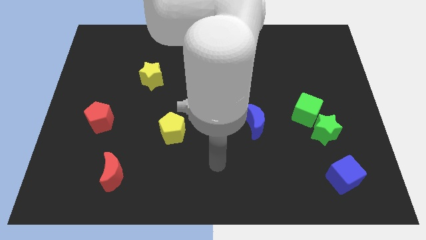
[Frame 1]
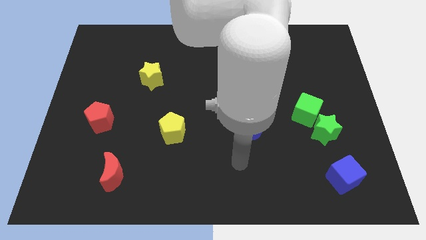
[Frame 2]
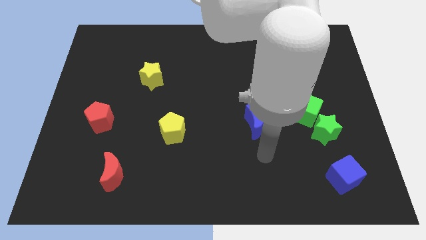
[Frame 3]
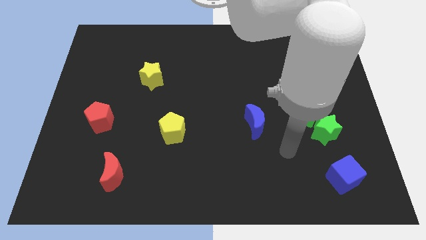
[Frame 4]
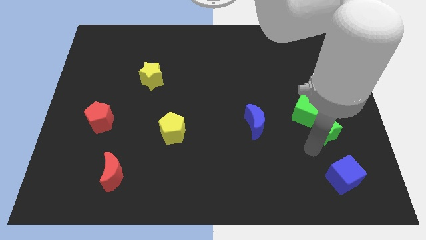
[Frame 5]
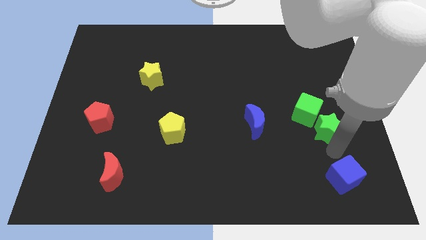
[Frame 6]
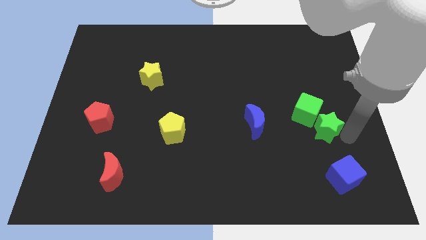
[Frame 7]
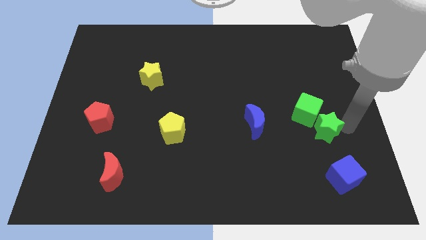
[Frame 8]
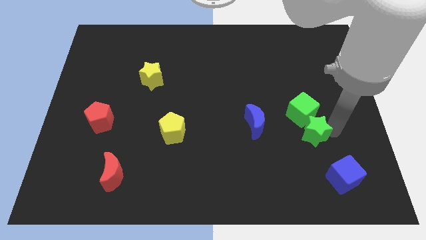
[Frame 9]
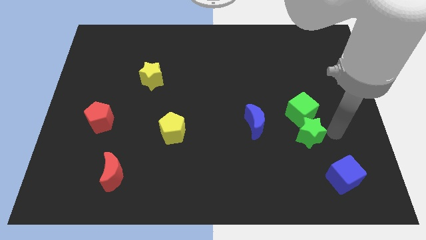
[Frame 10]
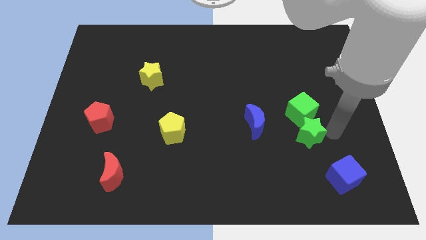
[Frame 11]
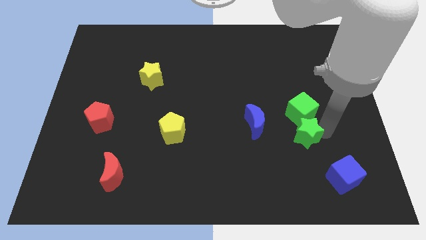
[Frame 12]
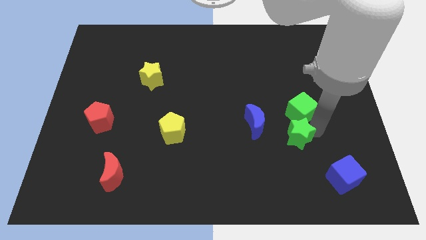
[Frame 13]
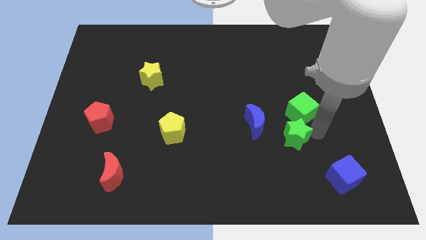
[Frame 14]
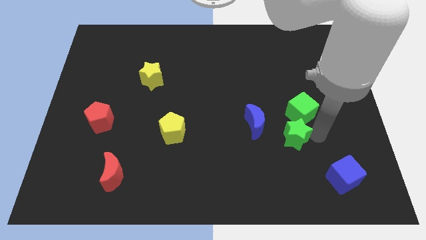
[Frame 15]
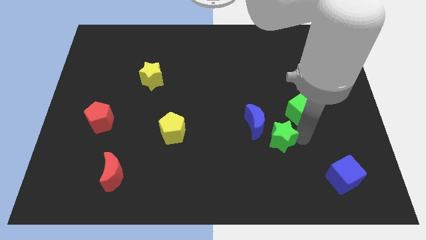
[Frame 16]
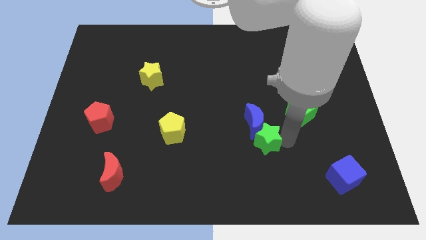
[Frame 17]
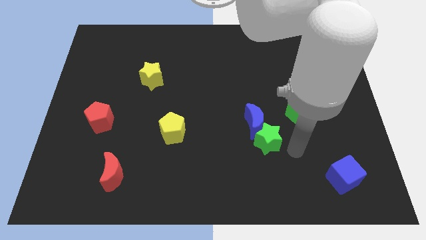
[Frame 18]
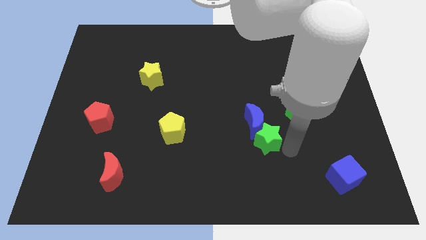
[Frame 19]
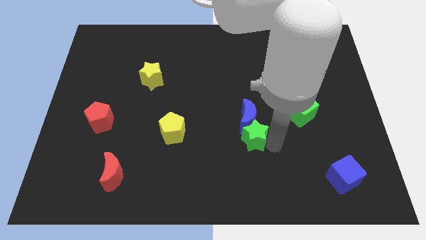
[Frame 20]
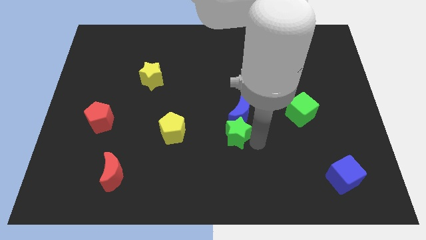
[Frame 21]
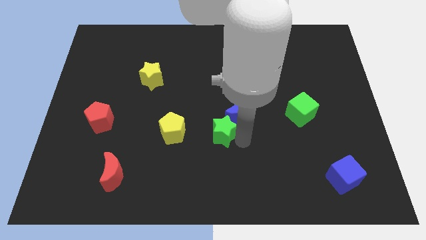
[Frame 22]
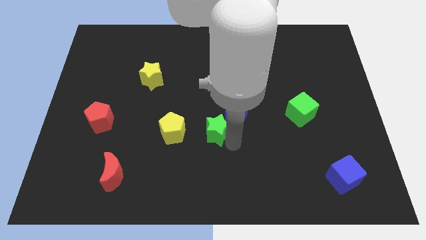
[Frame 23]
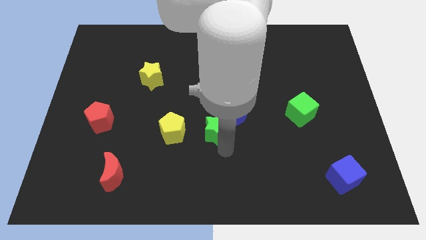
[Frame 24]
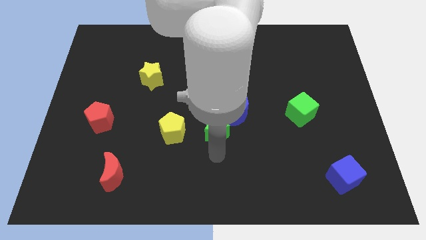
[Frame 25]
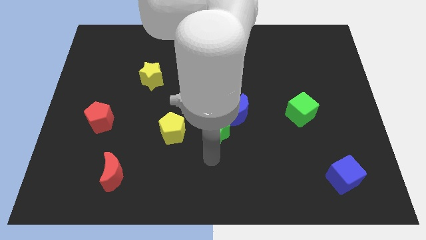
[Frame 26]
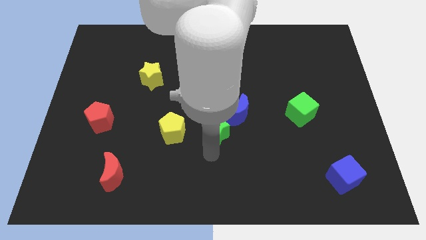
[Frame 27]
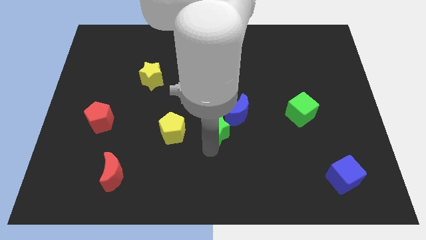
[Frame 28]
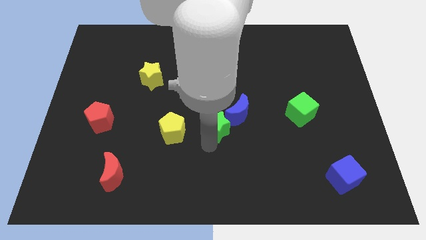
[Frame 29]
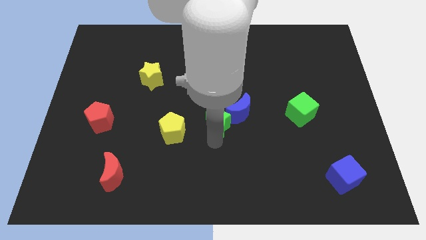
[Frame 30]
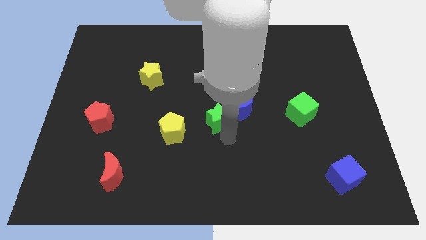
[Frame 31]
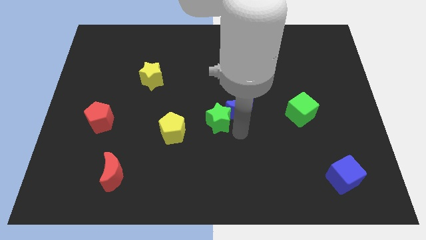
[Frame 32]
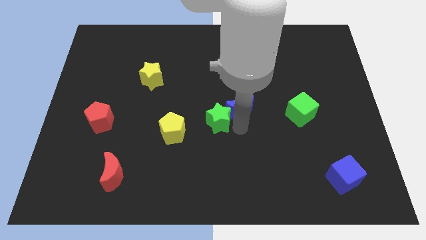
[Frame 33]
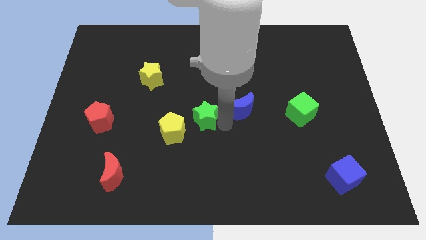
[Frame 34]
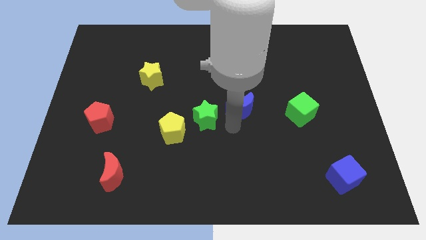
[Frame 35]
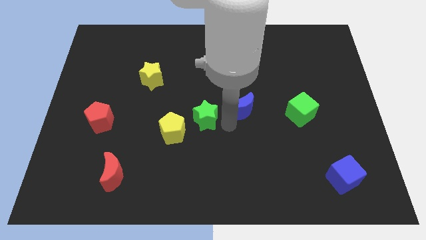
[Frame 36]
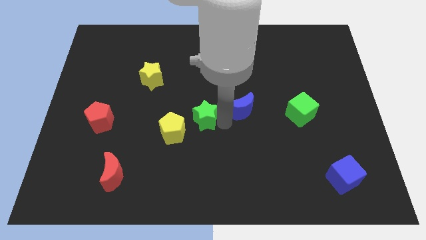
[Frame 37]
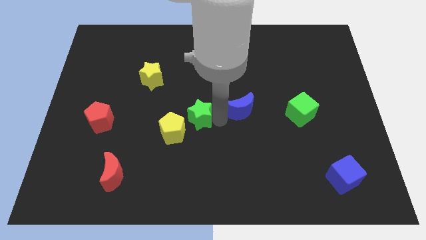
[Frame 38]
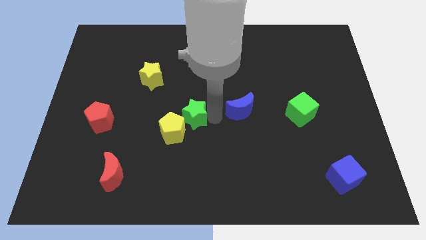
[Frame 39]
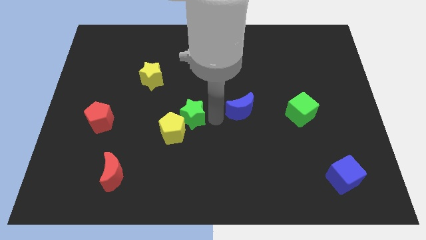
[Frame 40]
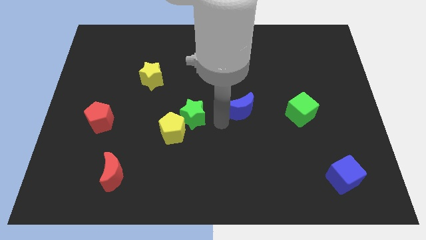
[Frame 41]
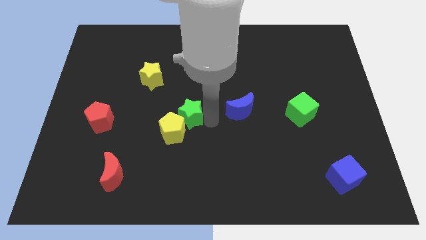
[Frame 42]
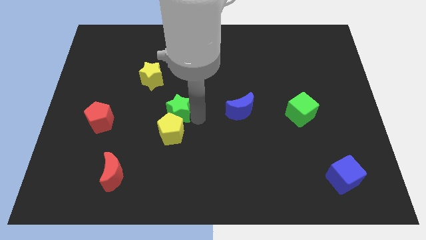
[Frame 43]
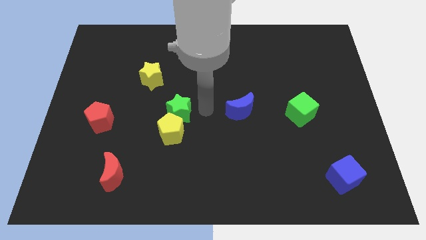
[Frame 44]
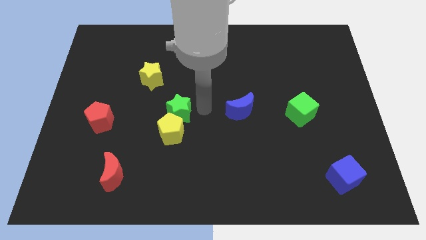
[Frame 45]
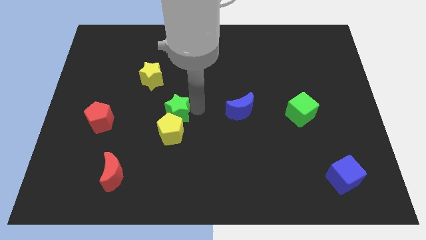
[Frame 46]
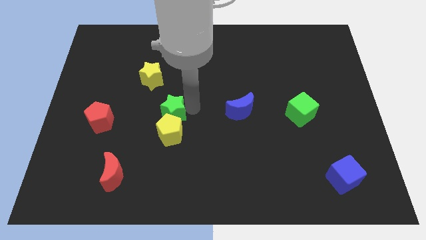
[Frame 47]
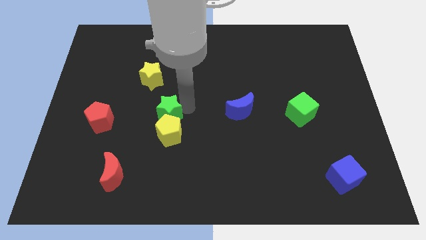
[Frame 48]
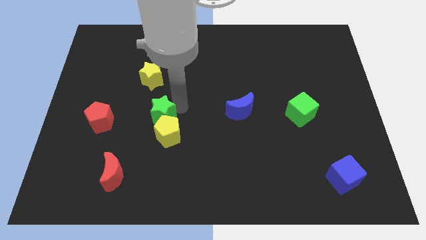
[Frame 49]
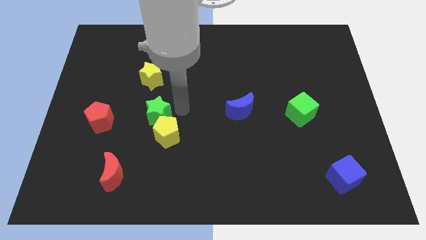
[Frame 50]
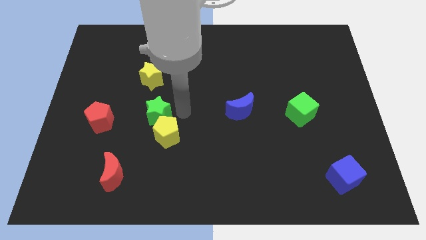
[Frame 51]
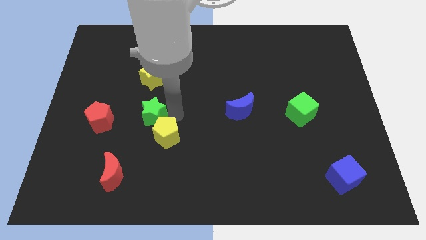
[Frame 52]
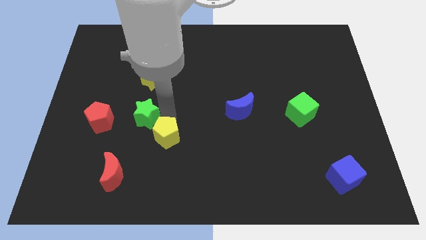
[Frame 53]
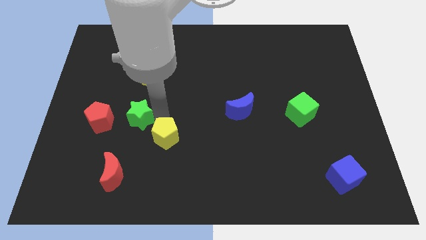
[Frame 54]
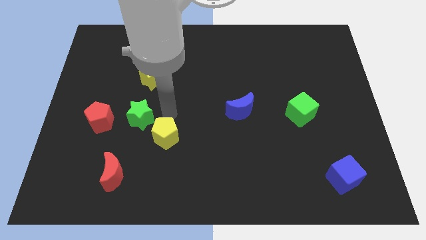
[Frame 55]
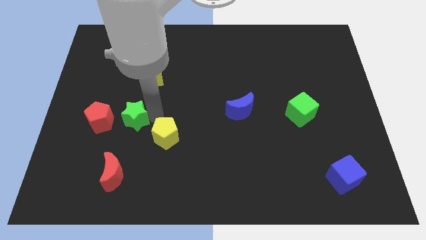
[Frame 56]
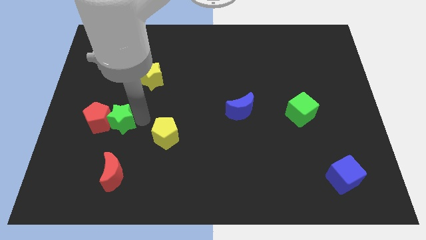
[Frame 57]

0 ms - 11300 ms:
push the green star close to the red pentagon

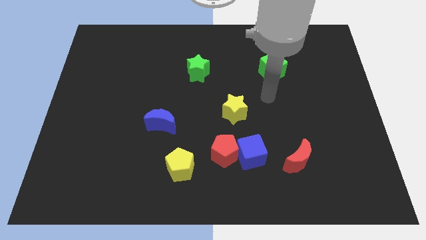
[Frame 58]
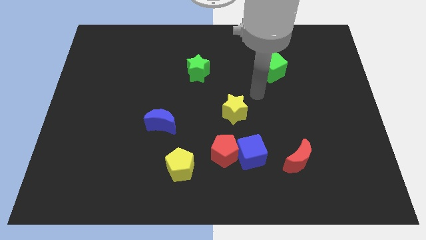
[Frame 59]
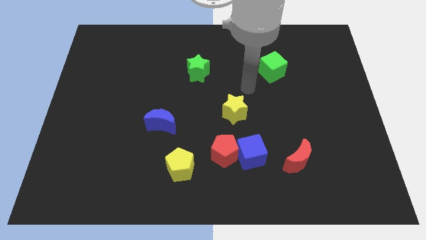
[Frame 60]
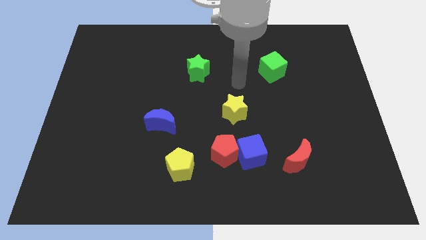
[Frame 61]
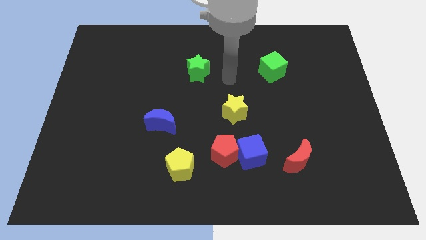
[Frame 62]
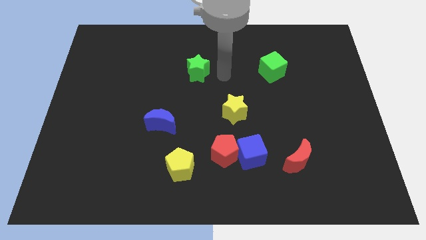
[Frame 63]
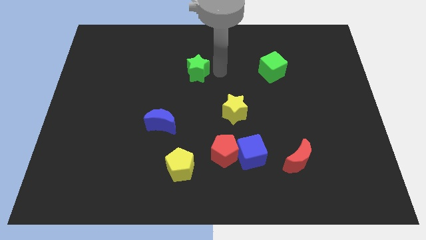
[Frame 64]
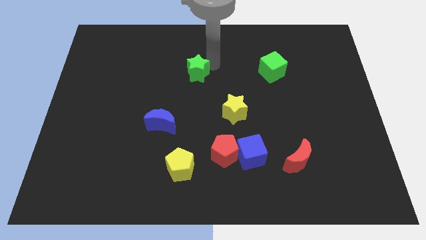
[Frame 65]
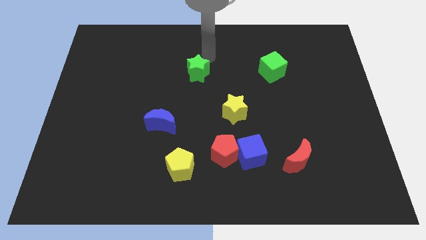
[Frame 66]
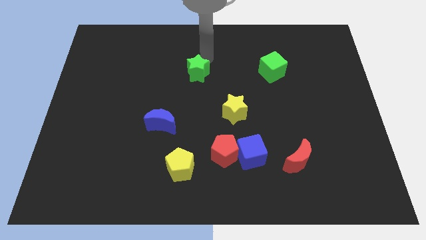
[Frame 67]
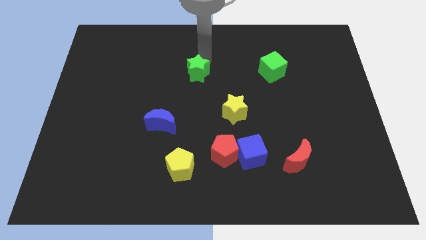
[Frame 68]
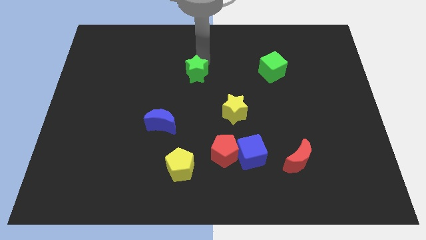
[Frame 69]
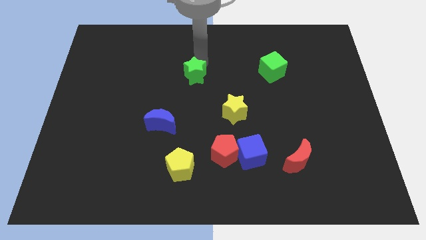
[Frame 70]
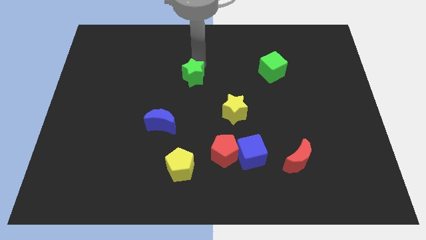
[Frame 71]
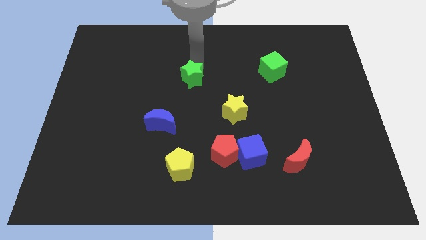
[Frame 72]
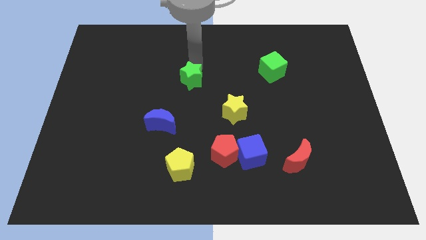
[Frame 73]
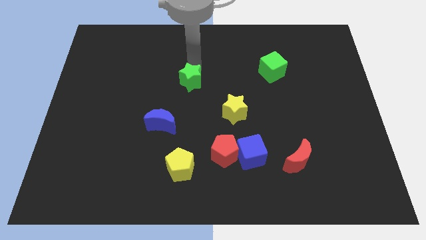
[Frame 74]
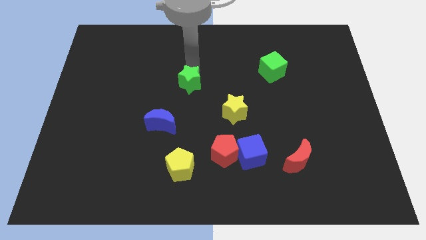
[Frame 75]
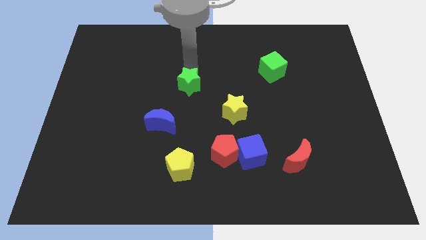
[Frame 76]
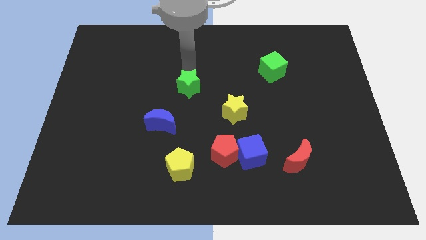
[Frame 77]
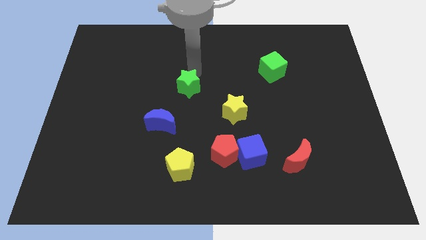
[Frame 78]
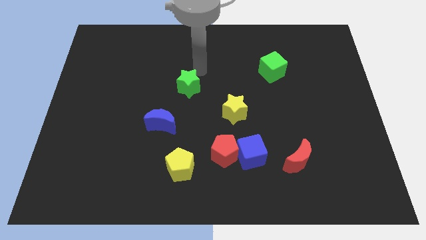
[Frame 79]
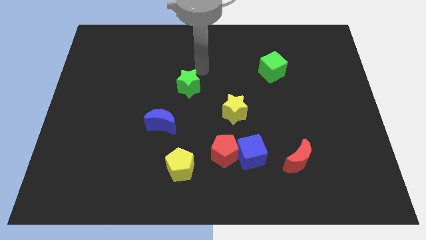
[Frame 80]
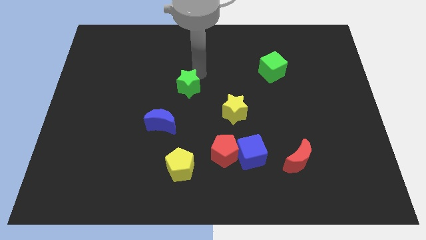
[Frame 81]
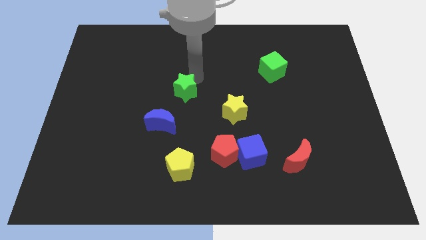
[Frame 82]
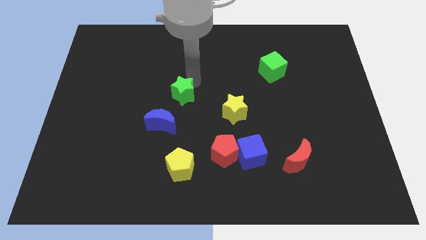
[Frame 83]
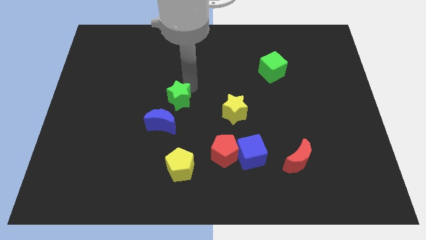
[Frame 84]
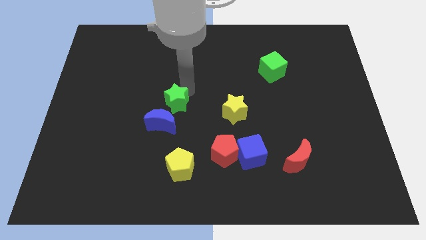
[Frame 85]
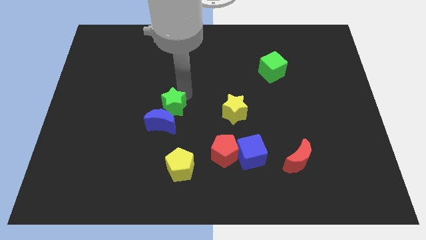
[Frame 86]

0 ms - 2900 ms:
slide the green star towards the blue moon
